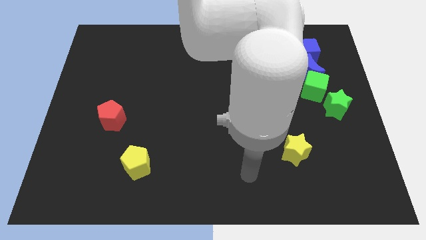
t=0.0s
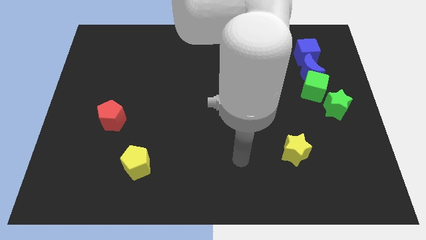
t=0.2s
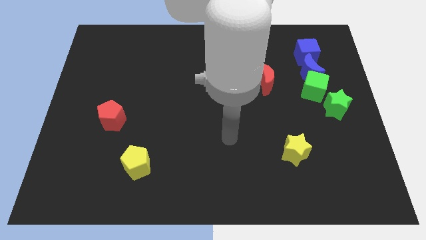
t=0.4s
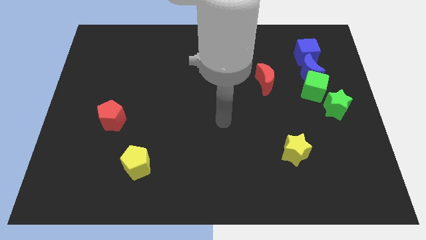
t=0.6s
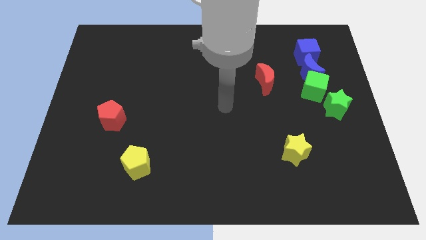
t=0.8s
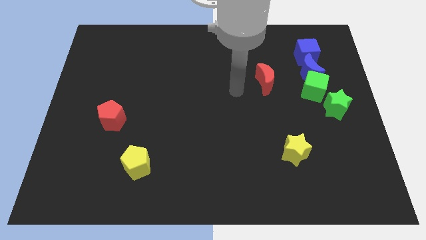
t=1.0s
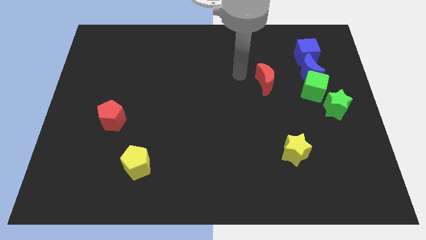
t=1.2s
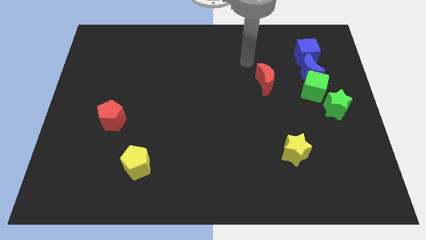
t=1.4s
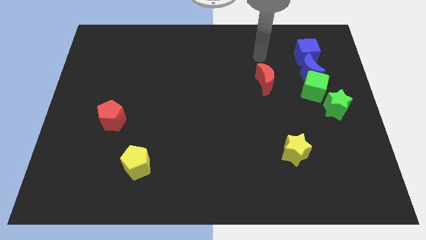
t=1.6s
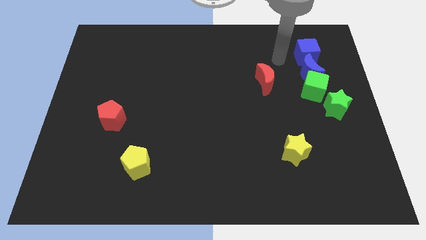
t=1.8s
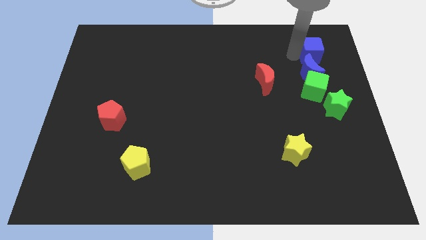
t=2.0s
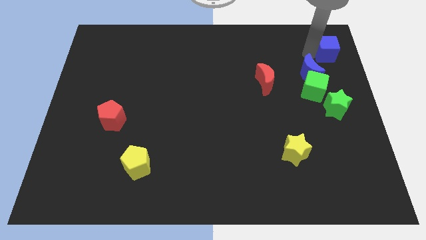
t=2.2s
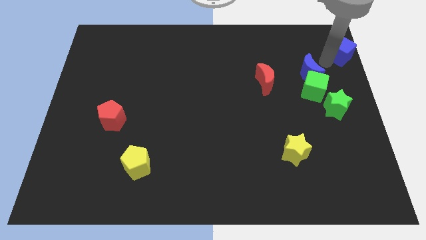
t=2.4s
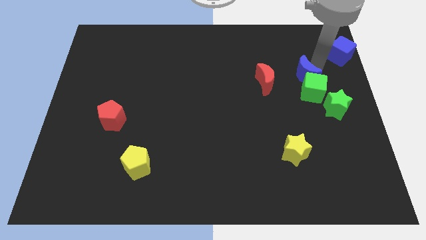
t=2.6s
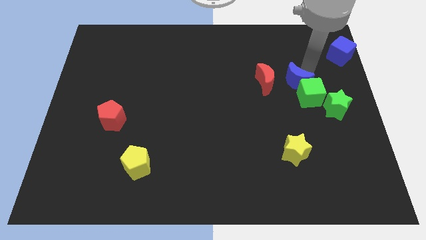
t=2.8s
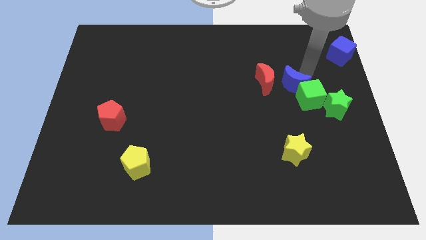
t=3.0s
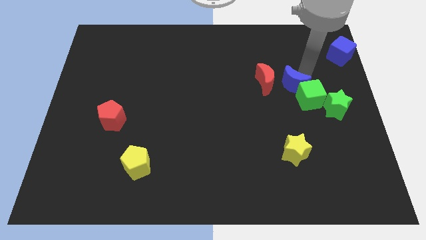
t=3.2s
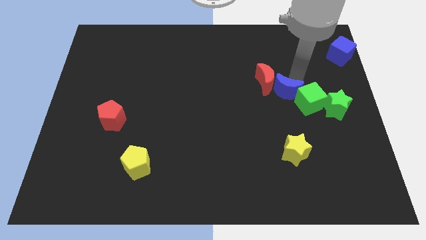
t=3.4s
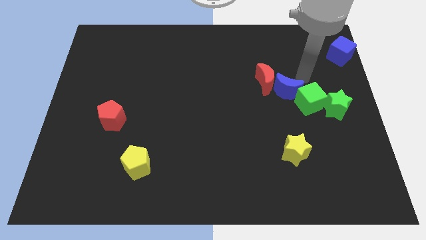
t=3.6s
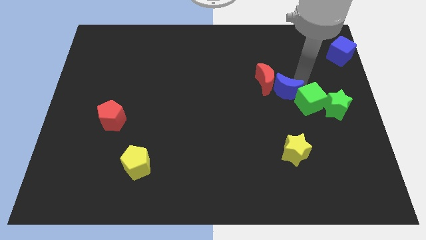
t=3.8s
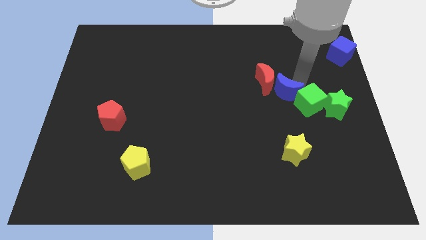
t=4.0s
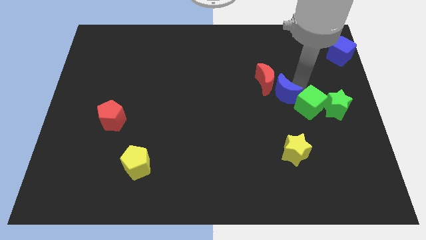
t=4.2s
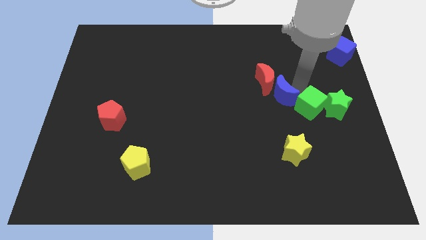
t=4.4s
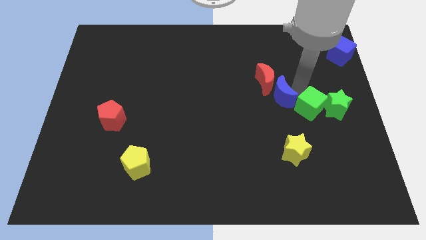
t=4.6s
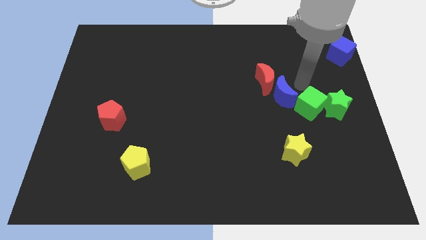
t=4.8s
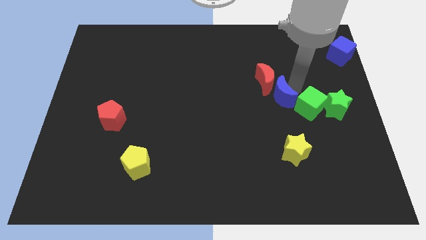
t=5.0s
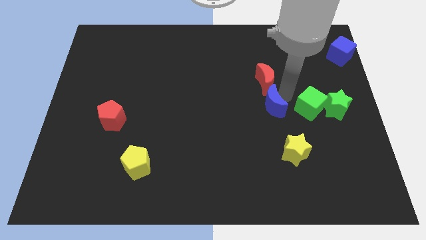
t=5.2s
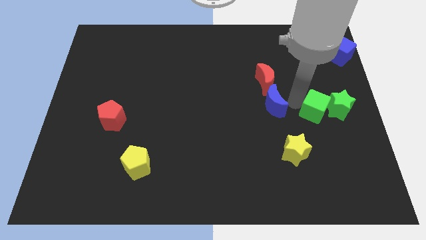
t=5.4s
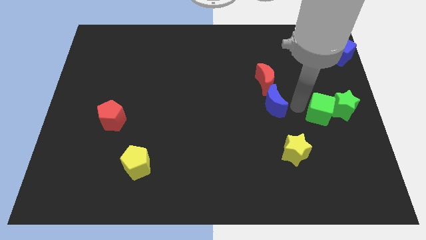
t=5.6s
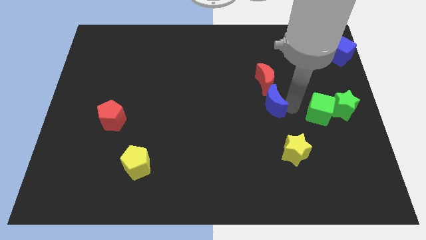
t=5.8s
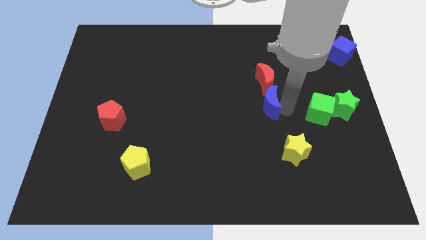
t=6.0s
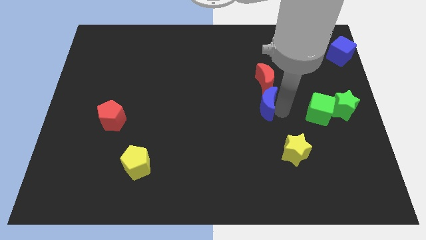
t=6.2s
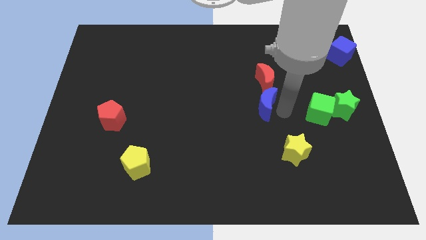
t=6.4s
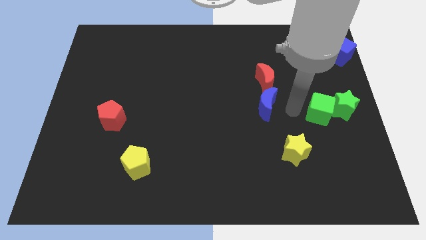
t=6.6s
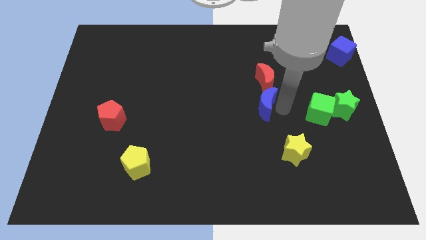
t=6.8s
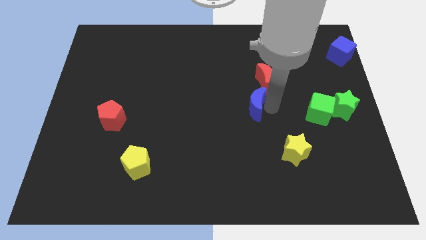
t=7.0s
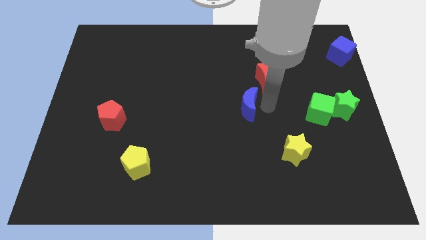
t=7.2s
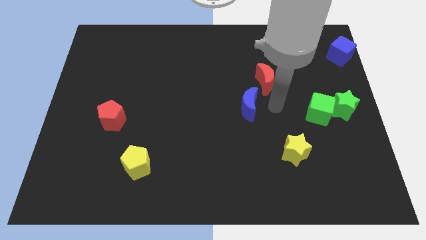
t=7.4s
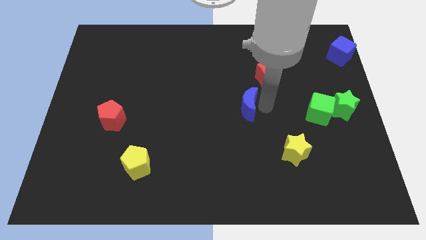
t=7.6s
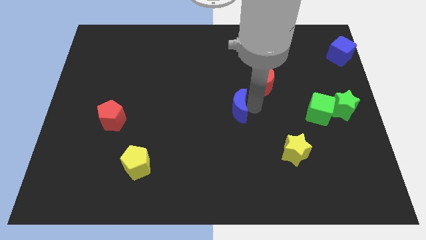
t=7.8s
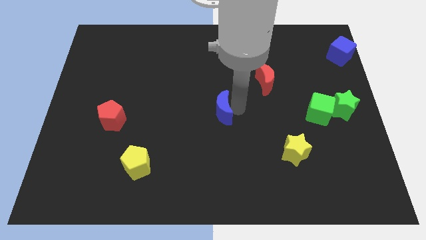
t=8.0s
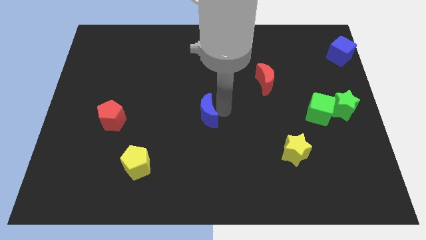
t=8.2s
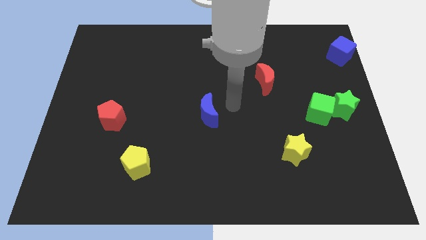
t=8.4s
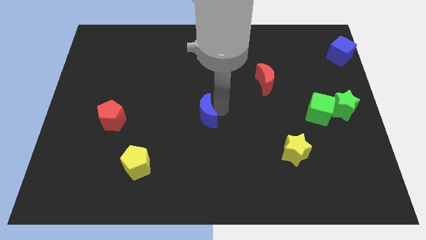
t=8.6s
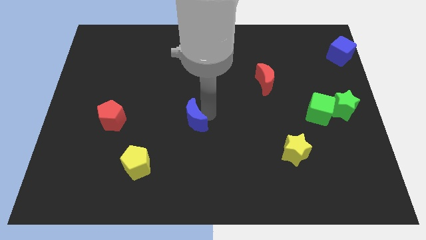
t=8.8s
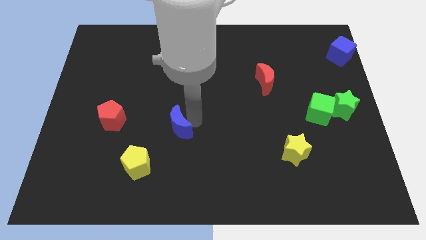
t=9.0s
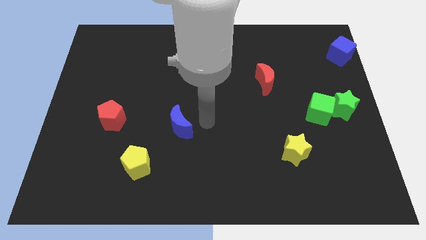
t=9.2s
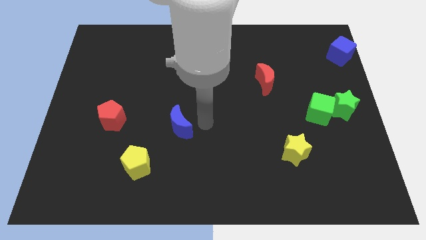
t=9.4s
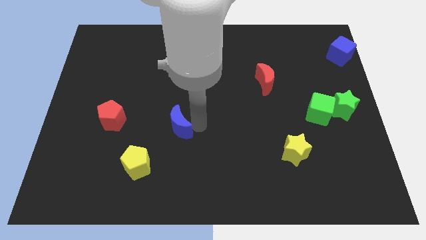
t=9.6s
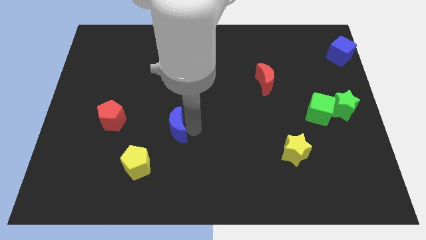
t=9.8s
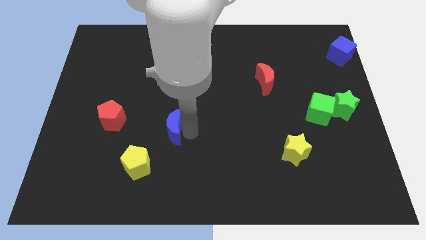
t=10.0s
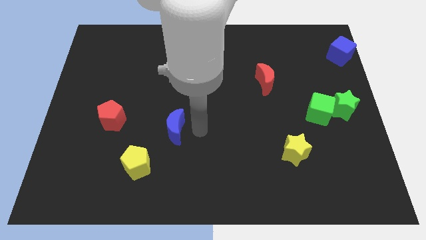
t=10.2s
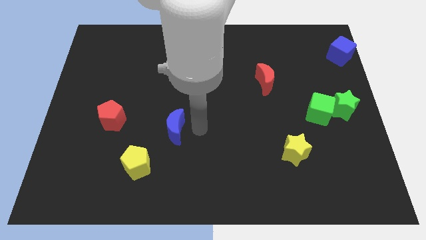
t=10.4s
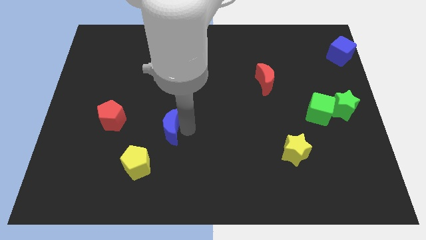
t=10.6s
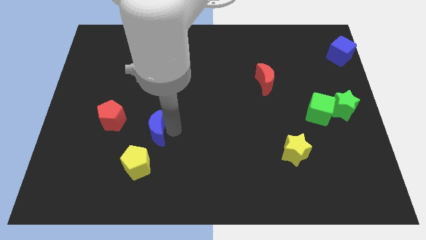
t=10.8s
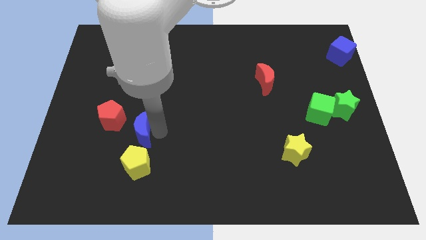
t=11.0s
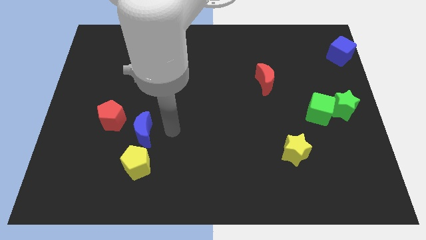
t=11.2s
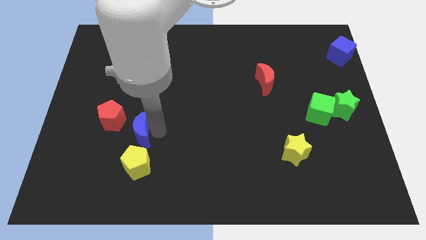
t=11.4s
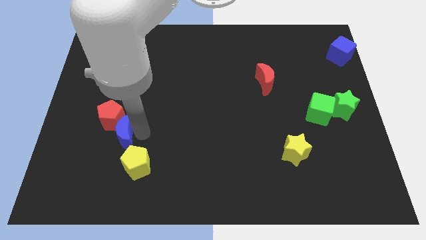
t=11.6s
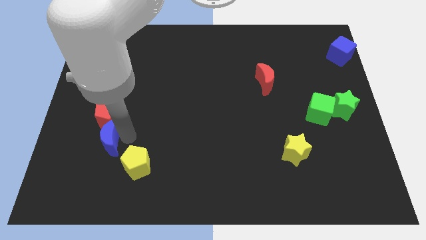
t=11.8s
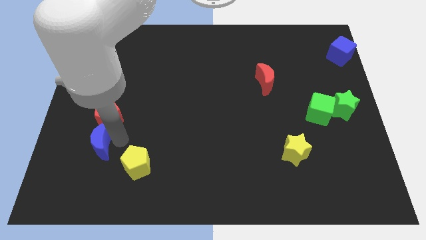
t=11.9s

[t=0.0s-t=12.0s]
push the blue moon diagonally down and to the left of the red pentagon
